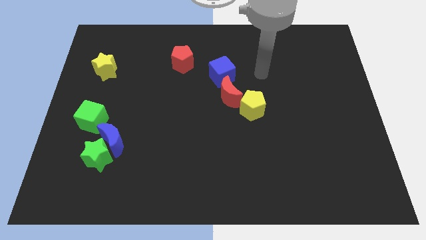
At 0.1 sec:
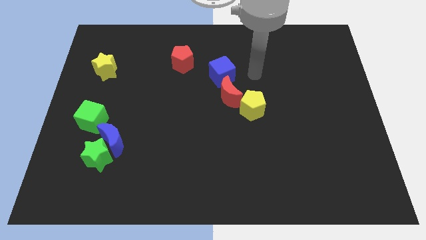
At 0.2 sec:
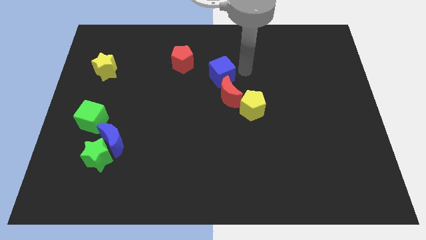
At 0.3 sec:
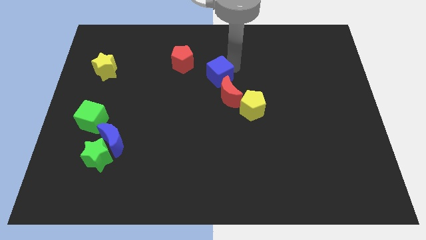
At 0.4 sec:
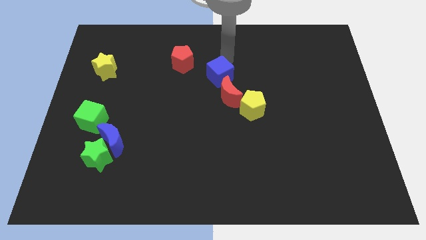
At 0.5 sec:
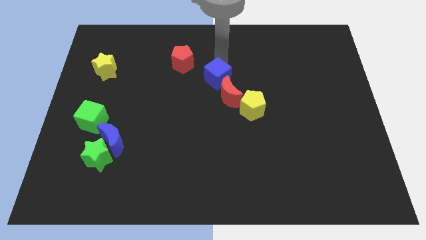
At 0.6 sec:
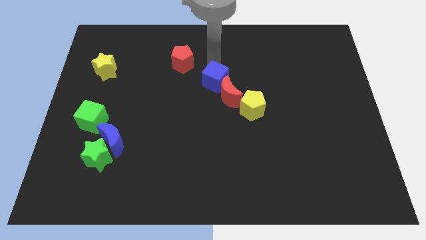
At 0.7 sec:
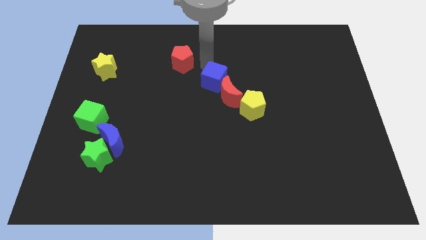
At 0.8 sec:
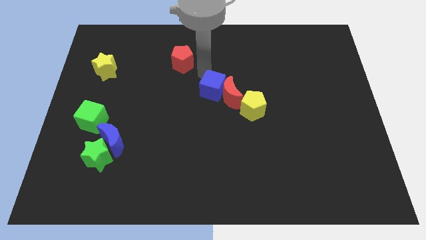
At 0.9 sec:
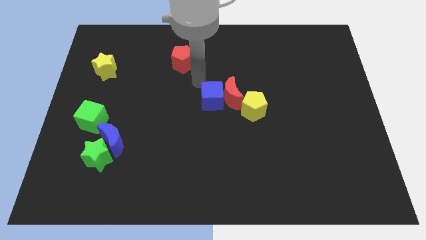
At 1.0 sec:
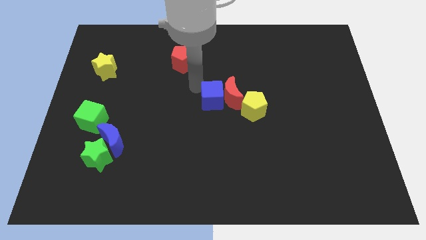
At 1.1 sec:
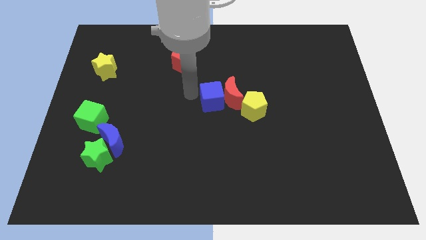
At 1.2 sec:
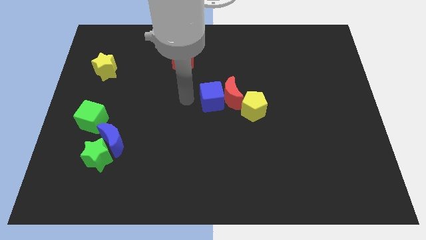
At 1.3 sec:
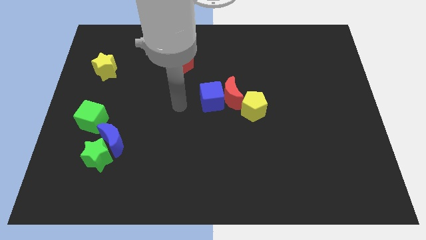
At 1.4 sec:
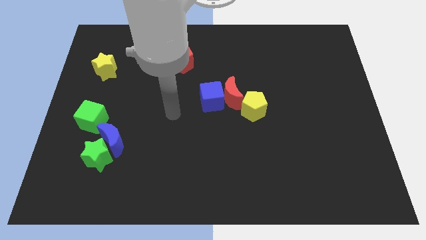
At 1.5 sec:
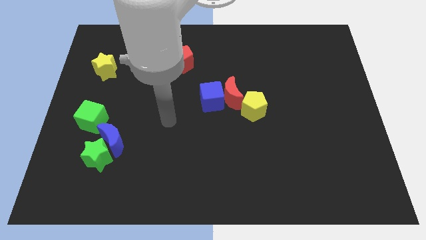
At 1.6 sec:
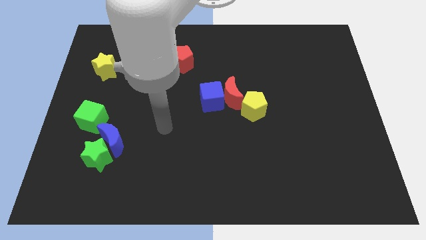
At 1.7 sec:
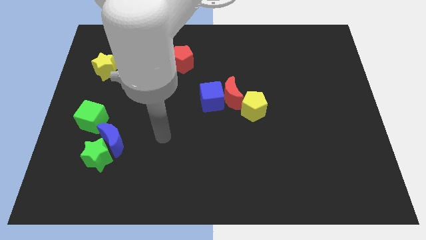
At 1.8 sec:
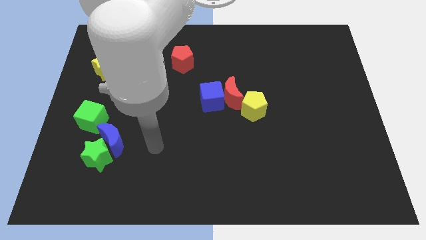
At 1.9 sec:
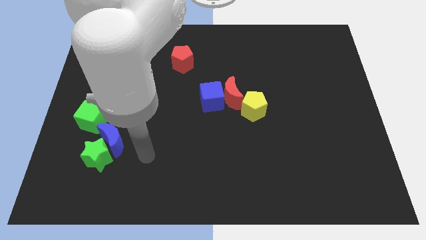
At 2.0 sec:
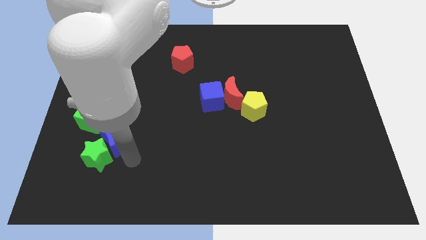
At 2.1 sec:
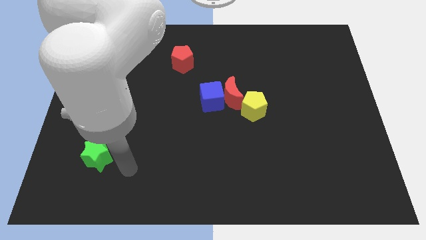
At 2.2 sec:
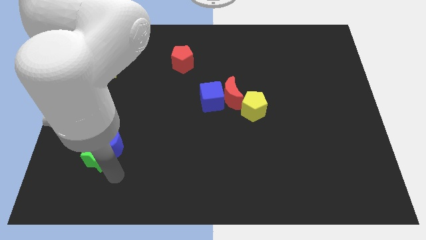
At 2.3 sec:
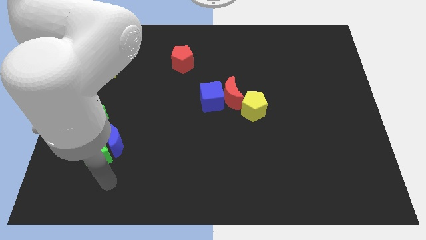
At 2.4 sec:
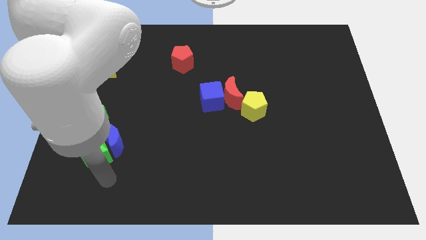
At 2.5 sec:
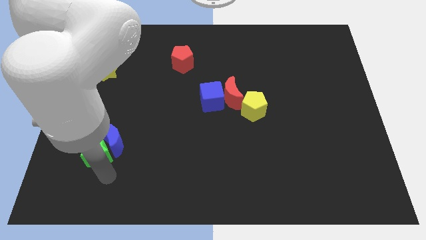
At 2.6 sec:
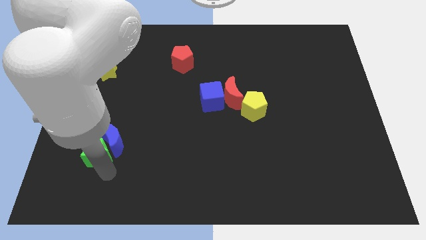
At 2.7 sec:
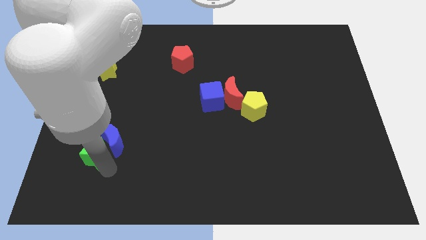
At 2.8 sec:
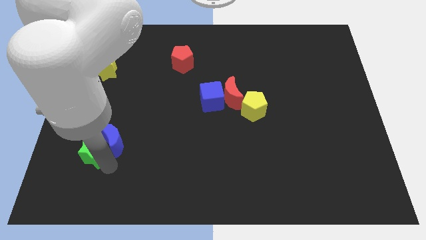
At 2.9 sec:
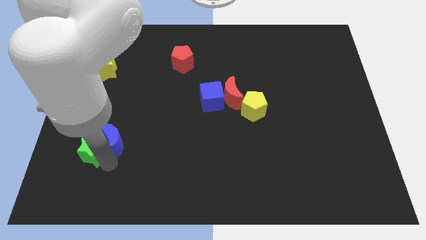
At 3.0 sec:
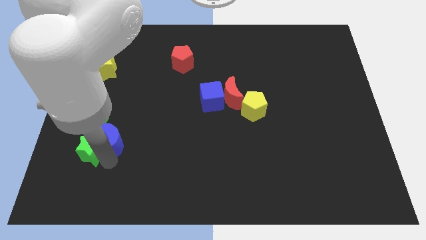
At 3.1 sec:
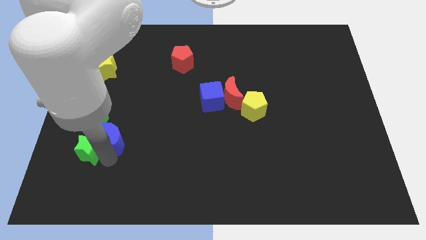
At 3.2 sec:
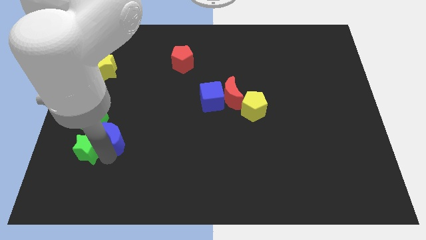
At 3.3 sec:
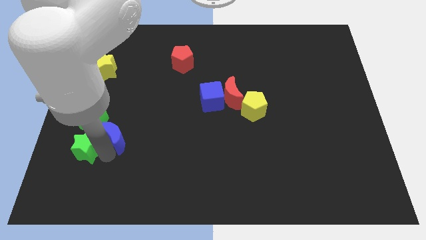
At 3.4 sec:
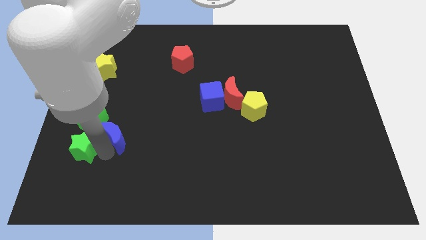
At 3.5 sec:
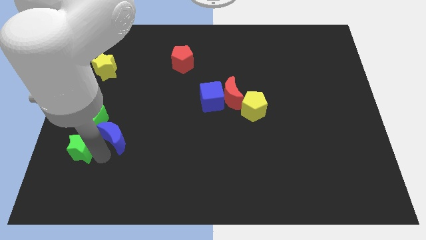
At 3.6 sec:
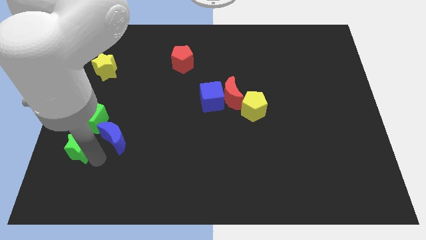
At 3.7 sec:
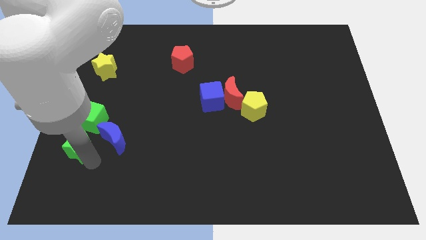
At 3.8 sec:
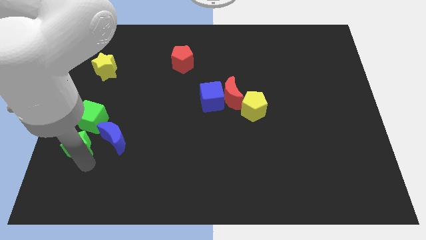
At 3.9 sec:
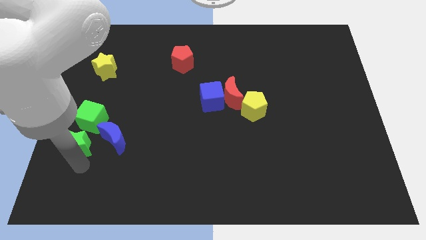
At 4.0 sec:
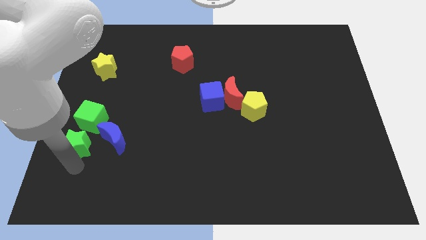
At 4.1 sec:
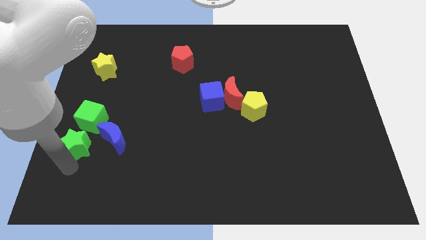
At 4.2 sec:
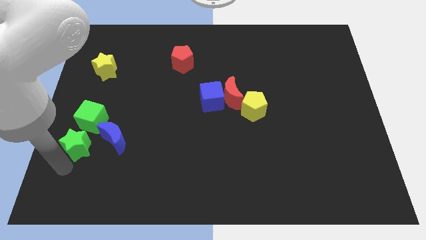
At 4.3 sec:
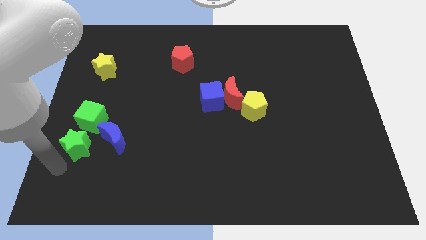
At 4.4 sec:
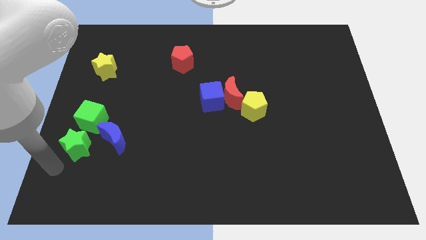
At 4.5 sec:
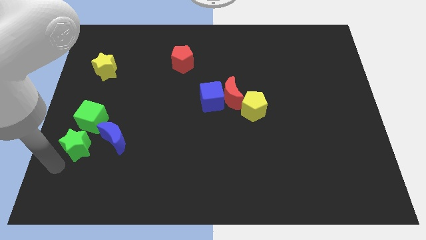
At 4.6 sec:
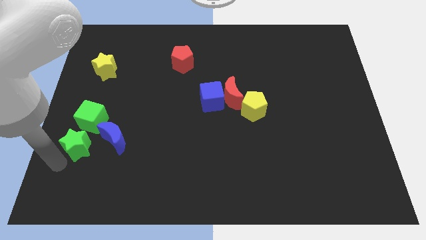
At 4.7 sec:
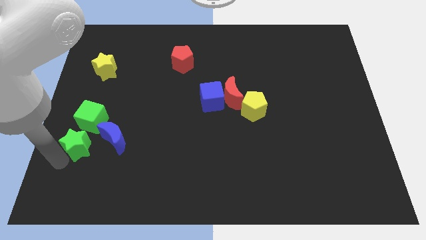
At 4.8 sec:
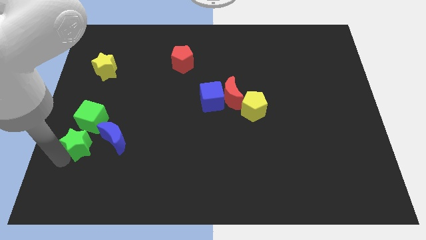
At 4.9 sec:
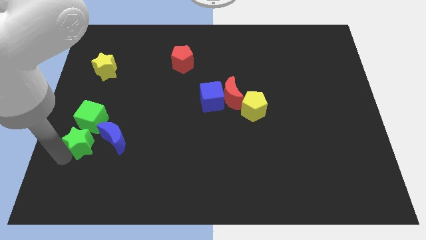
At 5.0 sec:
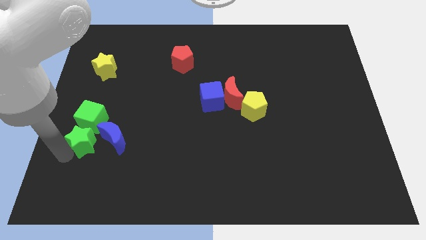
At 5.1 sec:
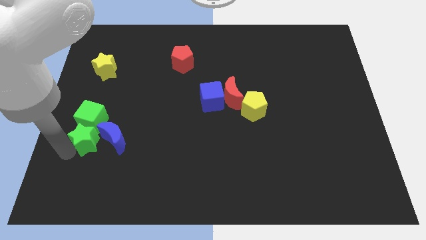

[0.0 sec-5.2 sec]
slide the green star next to the green cube

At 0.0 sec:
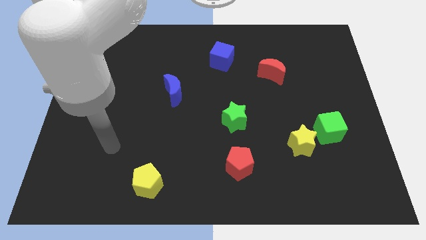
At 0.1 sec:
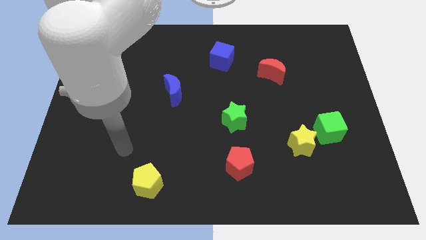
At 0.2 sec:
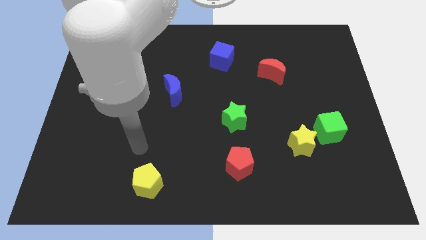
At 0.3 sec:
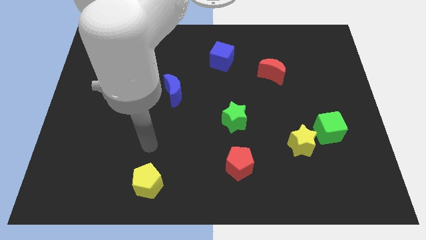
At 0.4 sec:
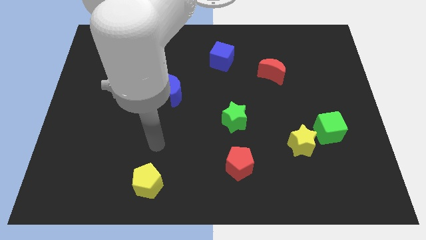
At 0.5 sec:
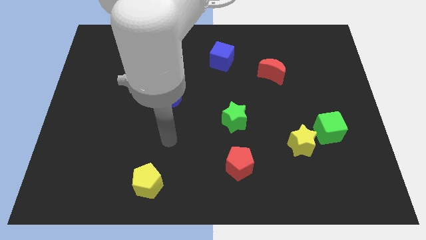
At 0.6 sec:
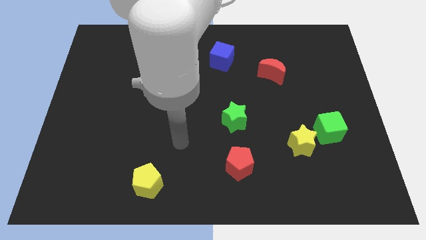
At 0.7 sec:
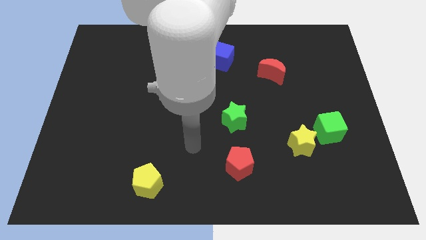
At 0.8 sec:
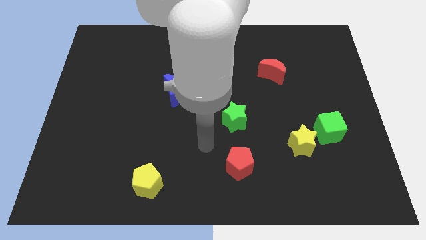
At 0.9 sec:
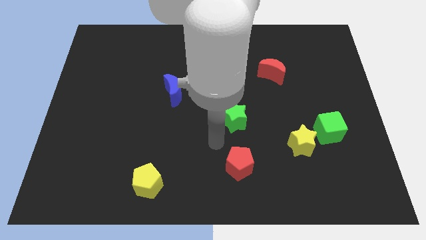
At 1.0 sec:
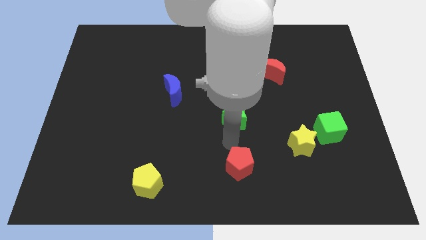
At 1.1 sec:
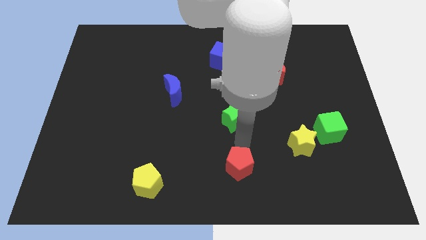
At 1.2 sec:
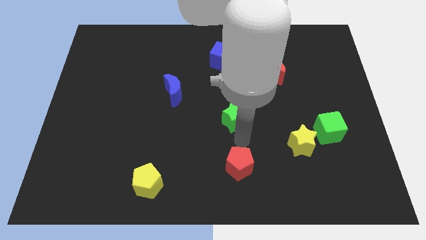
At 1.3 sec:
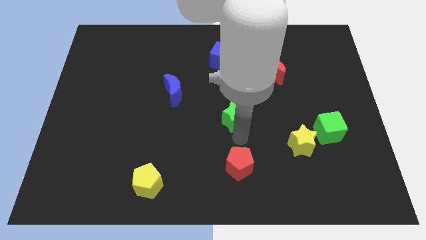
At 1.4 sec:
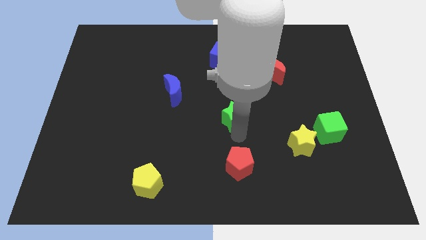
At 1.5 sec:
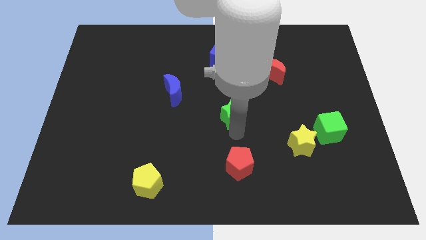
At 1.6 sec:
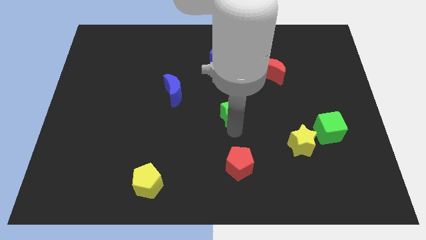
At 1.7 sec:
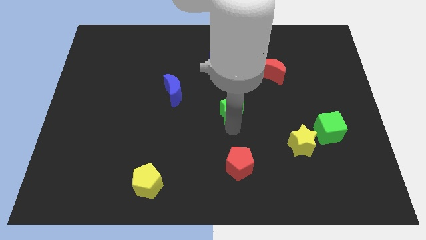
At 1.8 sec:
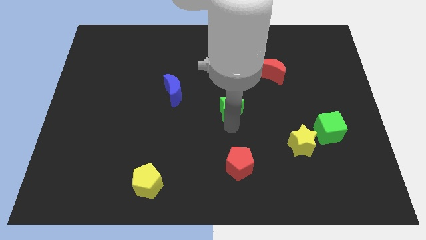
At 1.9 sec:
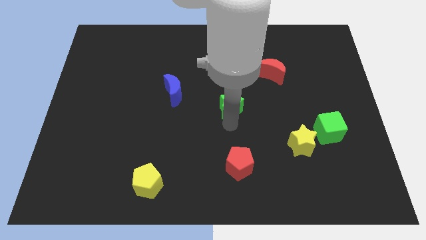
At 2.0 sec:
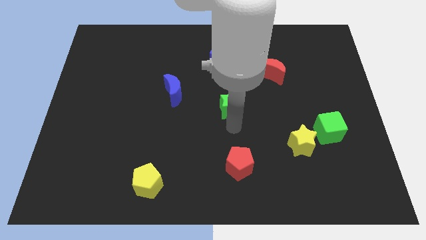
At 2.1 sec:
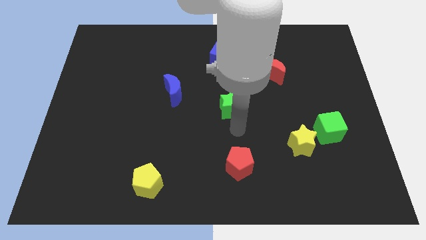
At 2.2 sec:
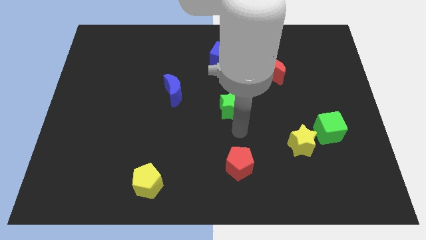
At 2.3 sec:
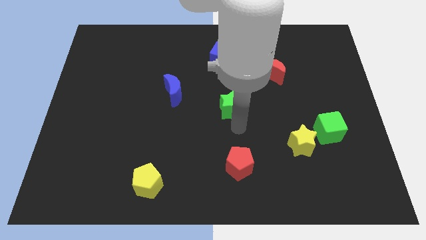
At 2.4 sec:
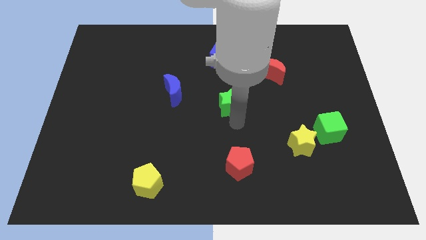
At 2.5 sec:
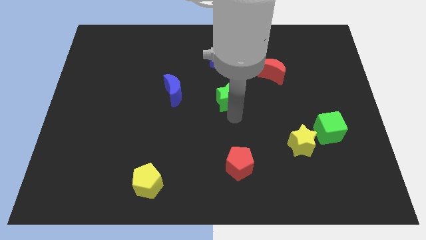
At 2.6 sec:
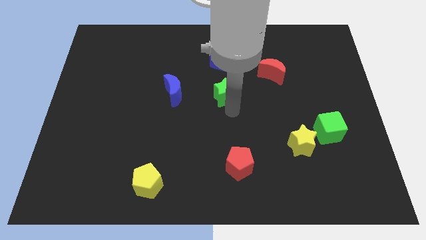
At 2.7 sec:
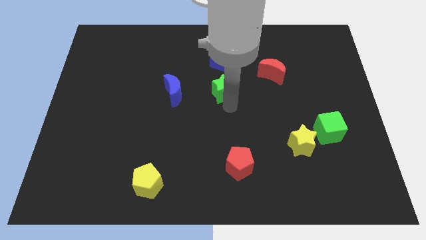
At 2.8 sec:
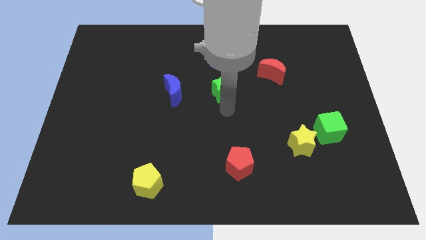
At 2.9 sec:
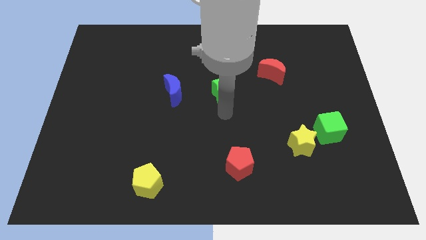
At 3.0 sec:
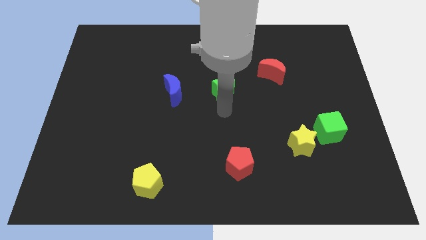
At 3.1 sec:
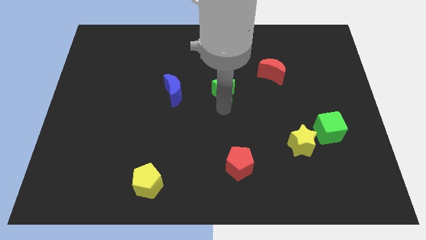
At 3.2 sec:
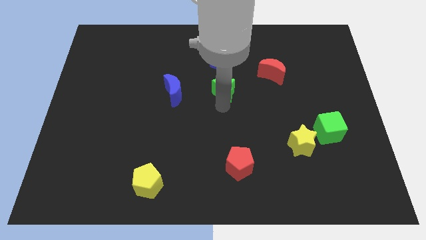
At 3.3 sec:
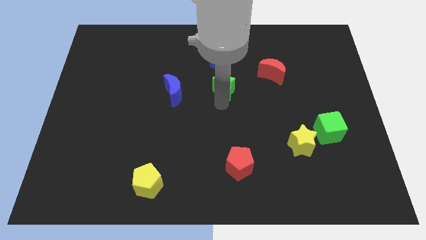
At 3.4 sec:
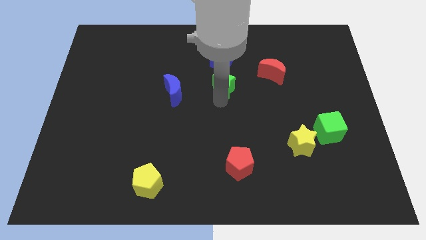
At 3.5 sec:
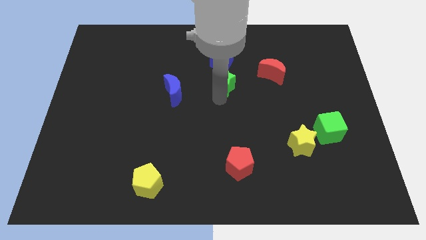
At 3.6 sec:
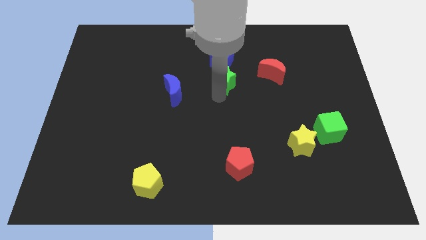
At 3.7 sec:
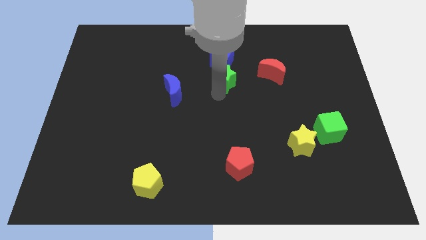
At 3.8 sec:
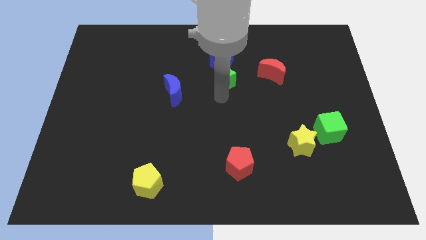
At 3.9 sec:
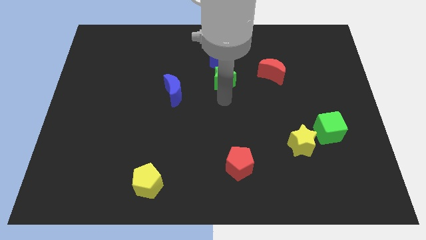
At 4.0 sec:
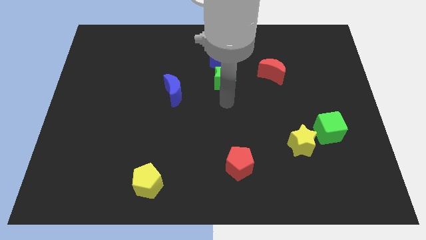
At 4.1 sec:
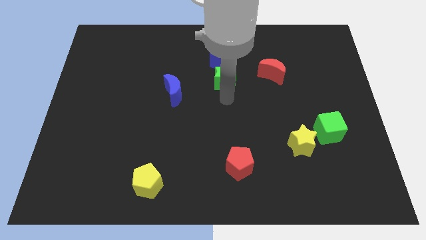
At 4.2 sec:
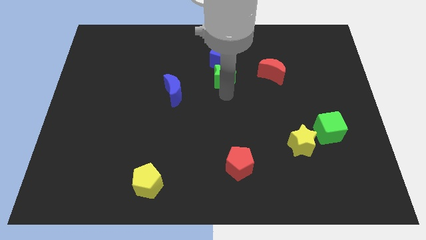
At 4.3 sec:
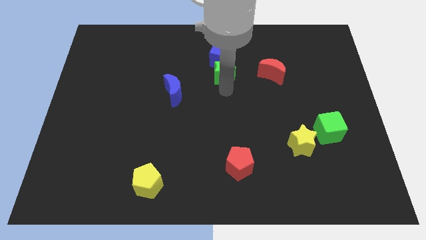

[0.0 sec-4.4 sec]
slide the green star to the blue cube
